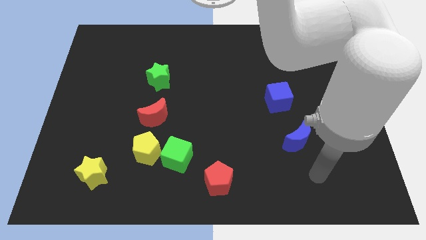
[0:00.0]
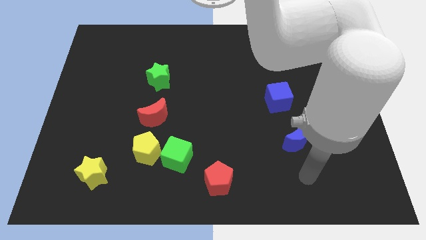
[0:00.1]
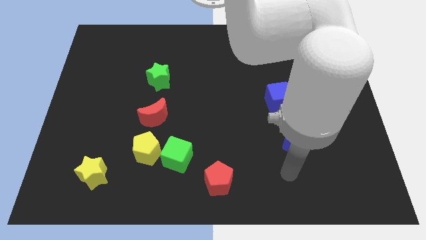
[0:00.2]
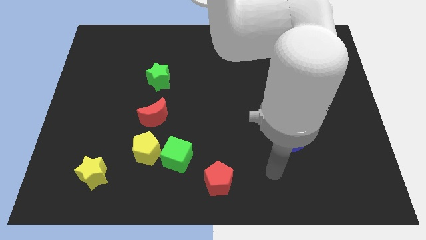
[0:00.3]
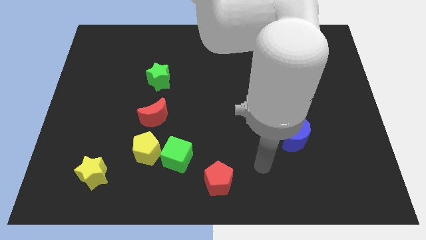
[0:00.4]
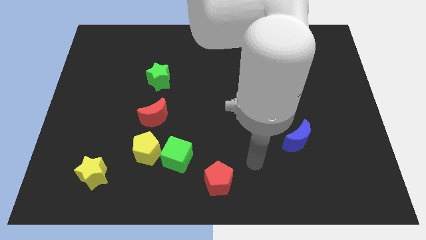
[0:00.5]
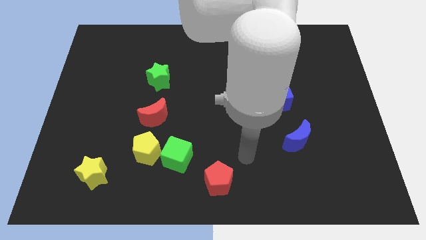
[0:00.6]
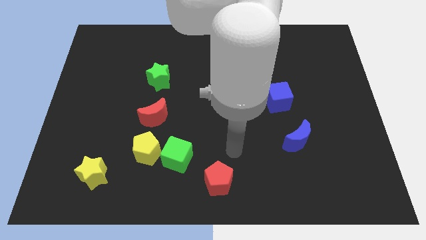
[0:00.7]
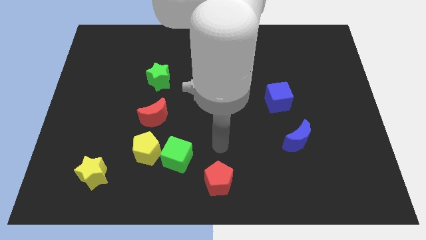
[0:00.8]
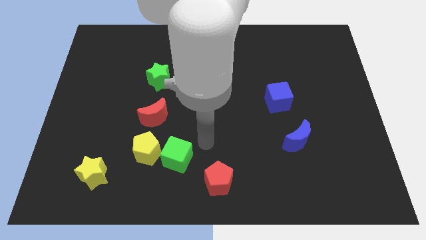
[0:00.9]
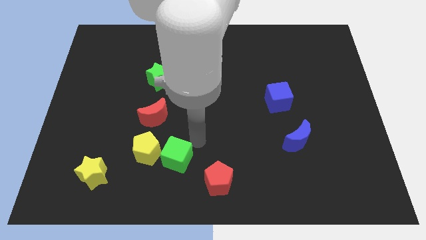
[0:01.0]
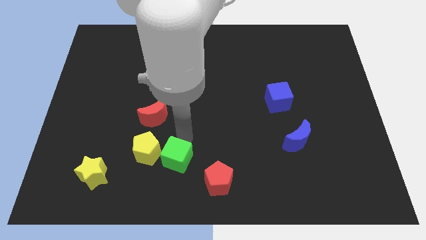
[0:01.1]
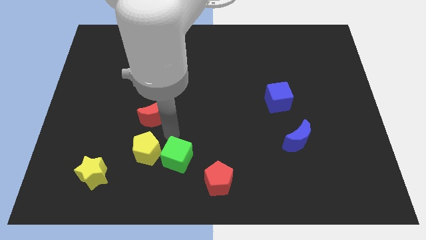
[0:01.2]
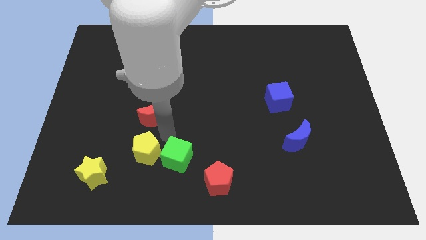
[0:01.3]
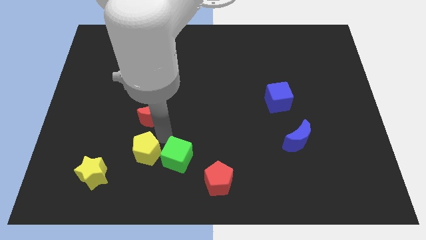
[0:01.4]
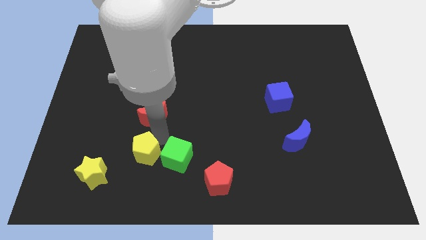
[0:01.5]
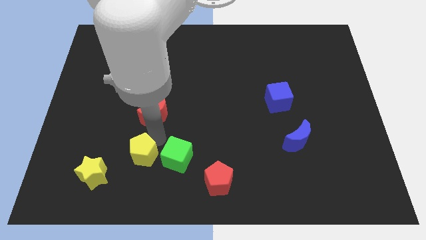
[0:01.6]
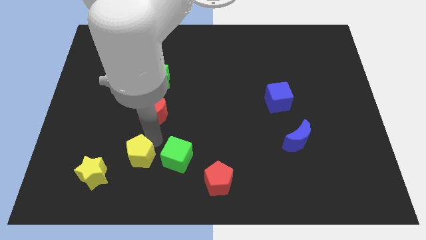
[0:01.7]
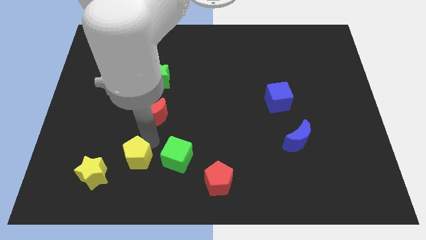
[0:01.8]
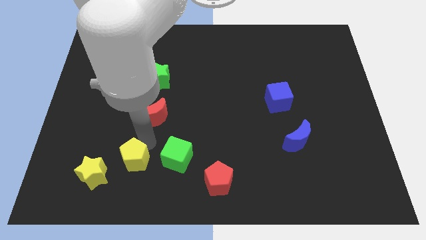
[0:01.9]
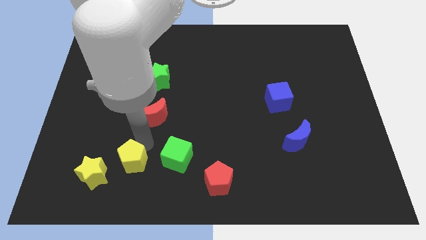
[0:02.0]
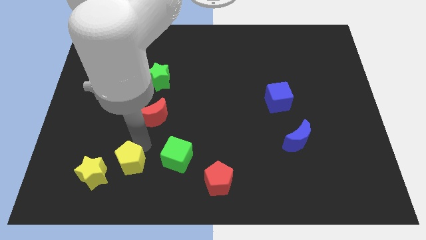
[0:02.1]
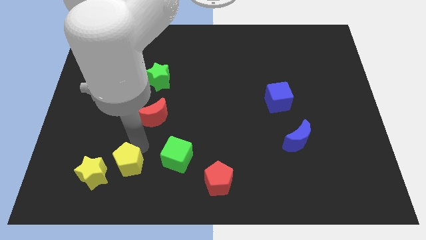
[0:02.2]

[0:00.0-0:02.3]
separate the yellow pentagon from the green cube and red moon

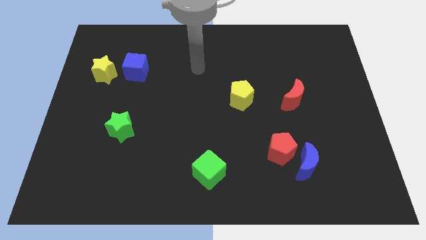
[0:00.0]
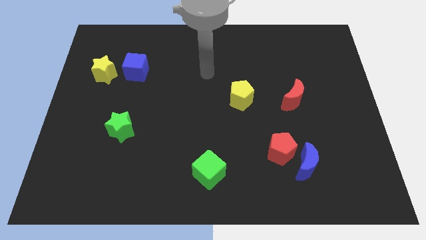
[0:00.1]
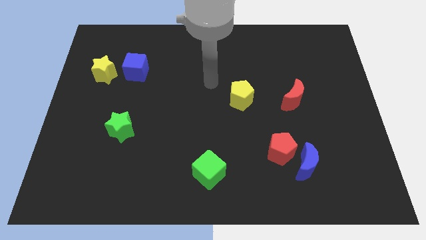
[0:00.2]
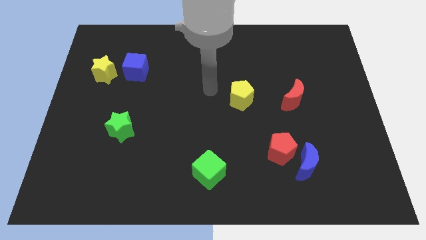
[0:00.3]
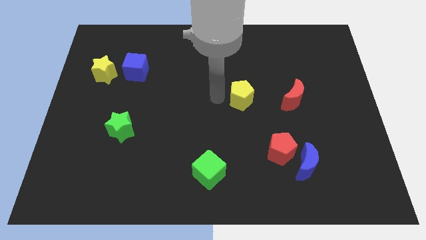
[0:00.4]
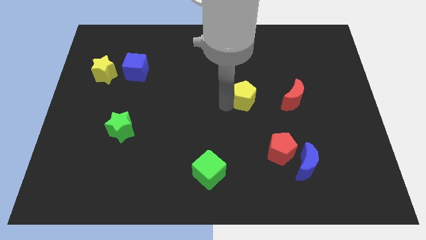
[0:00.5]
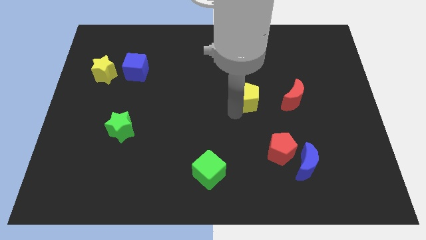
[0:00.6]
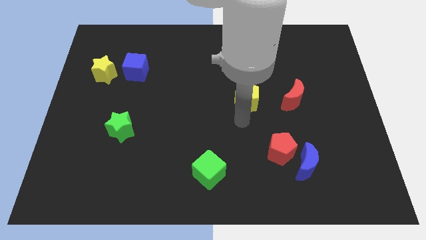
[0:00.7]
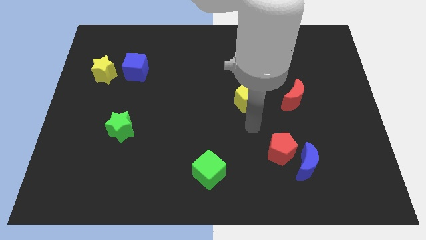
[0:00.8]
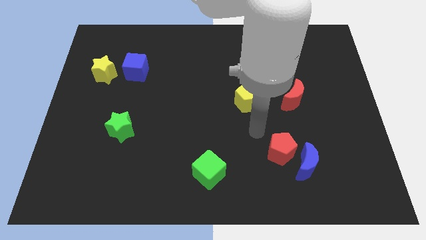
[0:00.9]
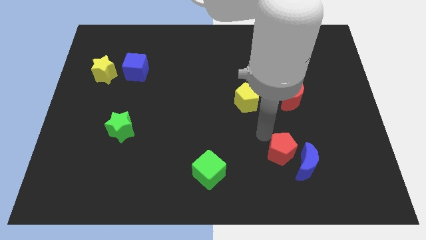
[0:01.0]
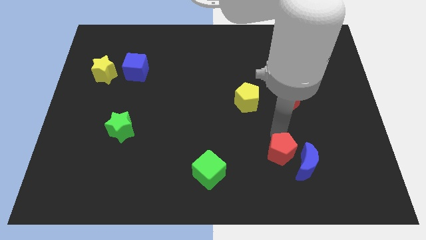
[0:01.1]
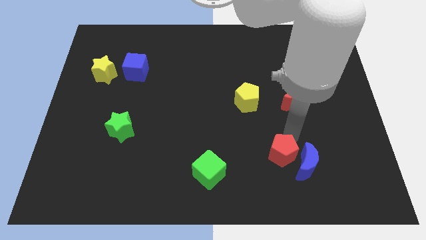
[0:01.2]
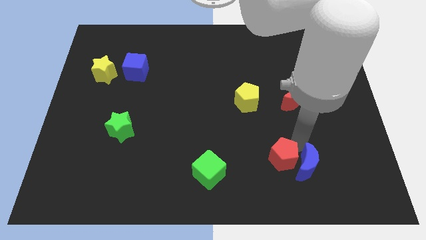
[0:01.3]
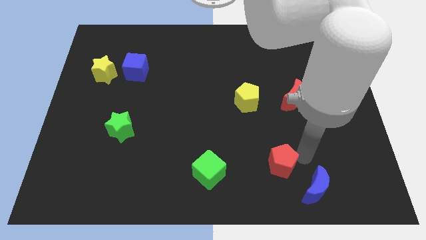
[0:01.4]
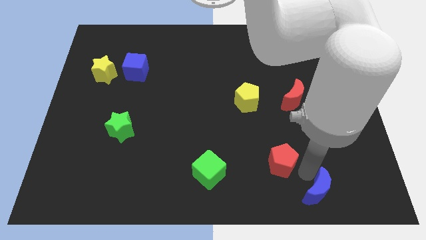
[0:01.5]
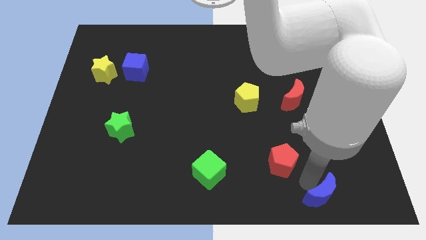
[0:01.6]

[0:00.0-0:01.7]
move the red pentagon away from the blue moon

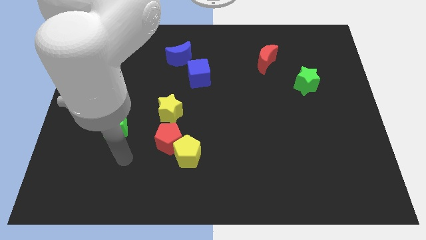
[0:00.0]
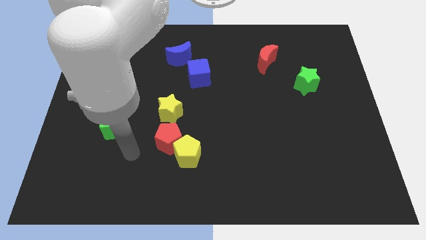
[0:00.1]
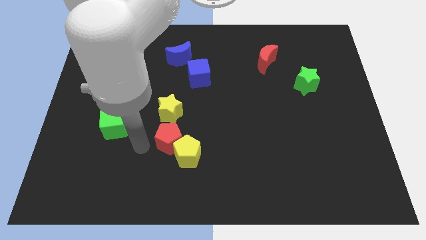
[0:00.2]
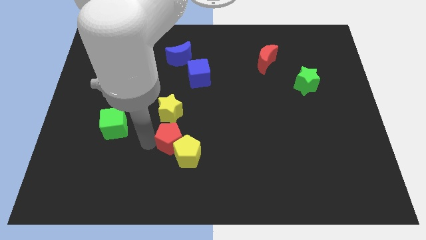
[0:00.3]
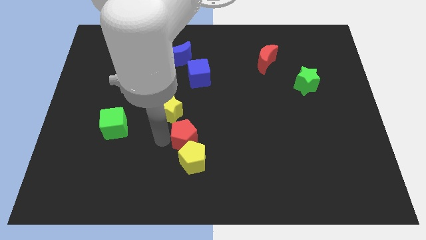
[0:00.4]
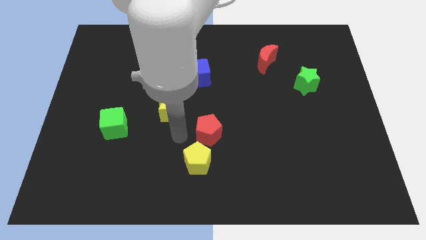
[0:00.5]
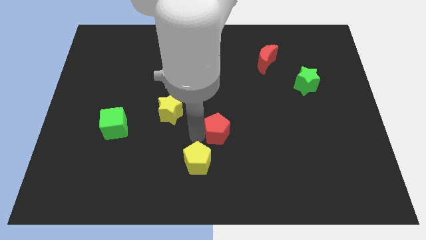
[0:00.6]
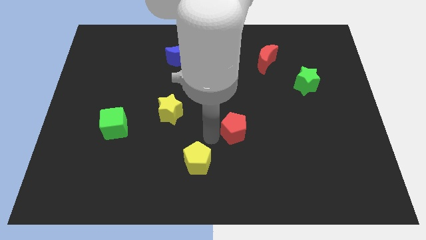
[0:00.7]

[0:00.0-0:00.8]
separate the yellow pentagon from the red pentagon

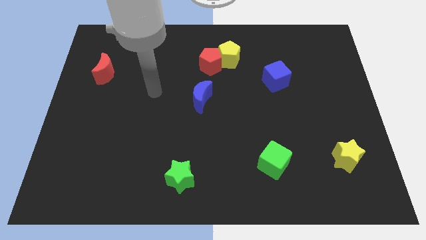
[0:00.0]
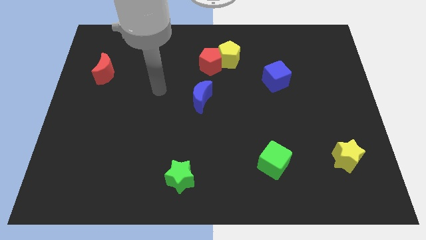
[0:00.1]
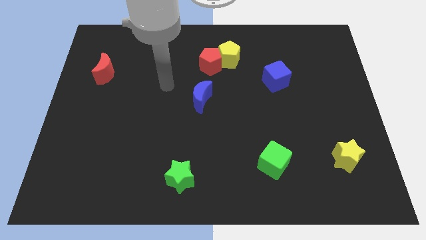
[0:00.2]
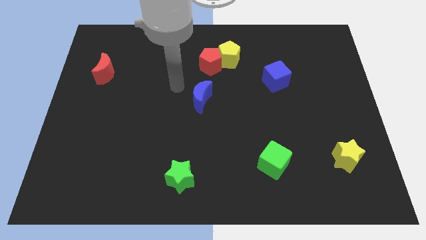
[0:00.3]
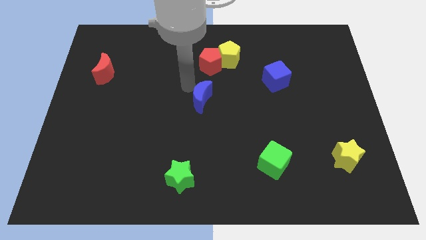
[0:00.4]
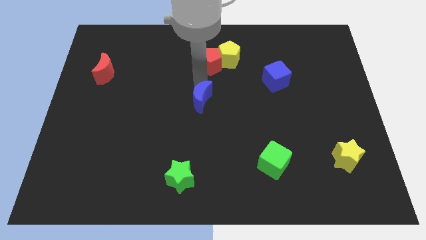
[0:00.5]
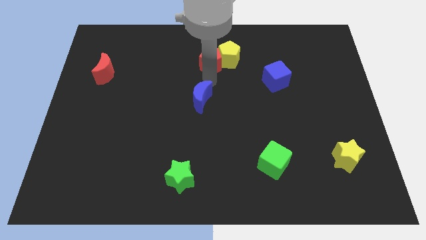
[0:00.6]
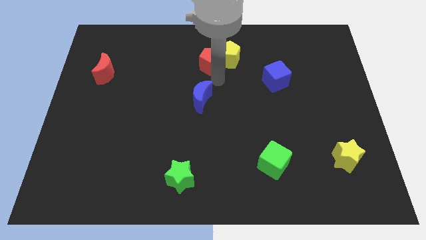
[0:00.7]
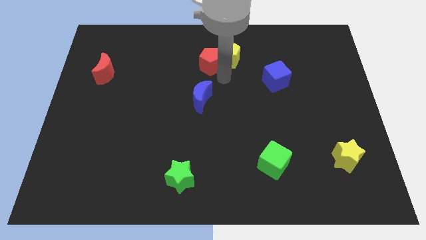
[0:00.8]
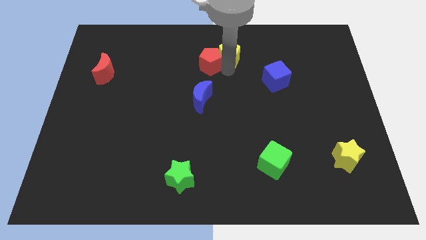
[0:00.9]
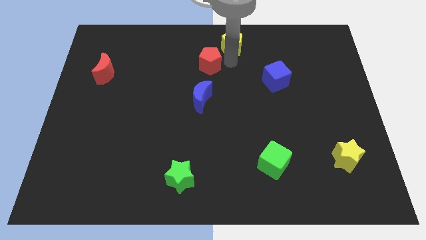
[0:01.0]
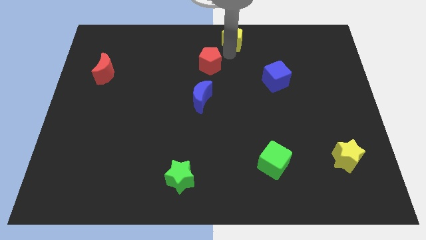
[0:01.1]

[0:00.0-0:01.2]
pull the red pentagon apart from the yellow pentagon

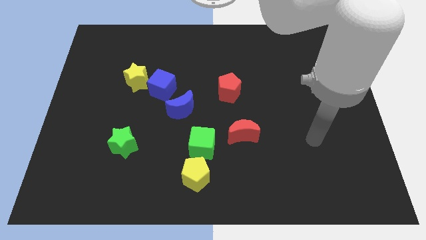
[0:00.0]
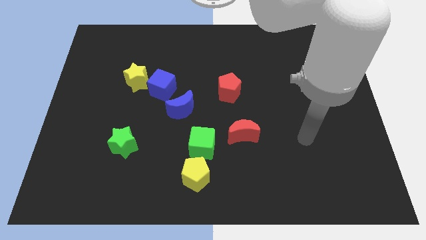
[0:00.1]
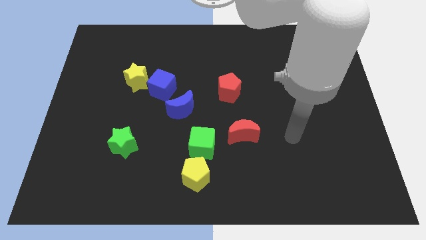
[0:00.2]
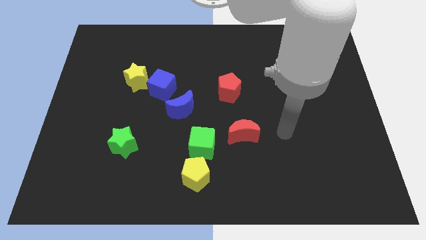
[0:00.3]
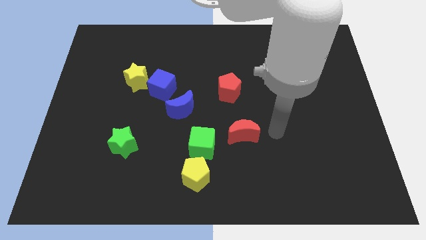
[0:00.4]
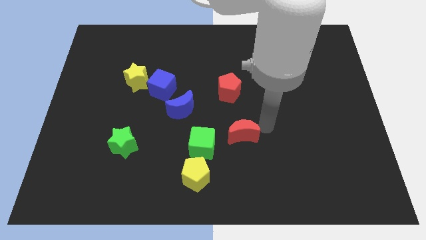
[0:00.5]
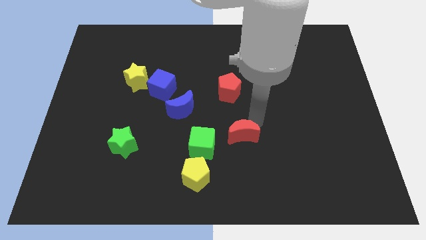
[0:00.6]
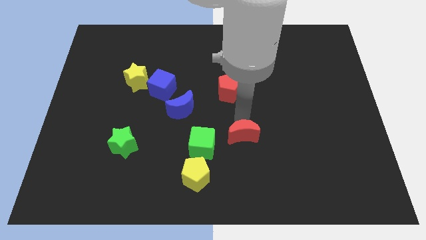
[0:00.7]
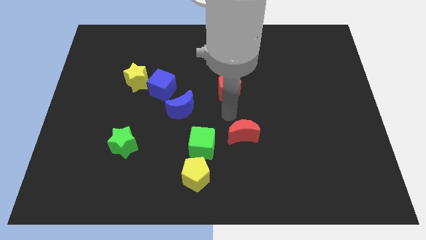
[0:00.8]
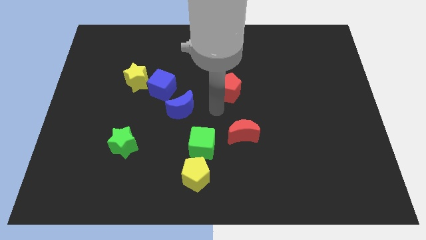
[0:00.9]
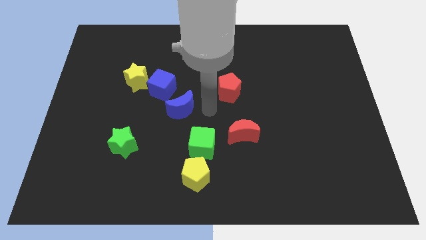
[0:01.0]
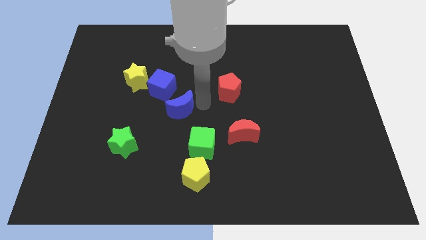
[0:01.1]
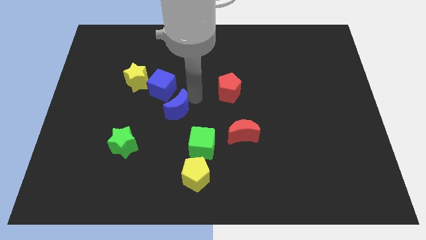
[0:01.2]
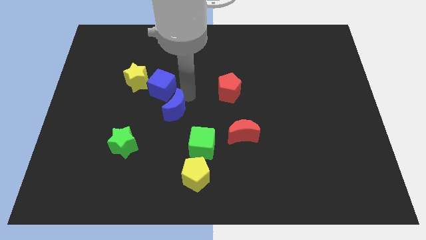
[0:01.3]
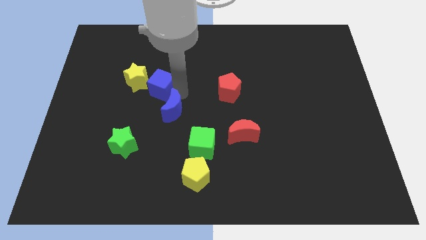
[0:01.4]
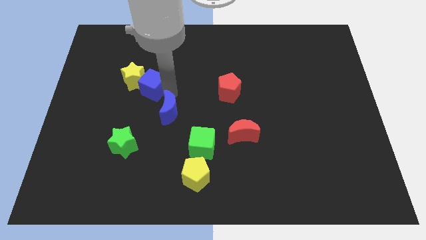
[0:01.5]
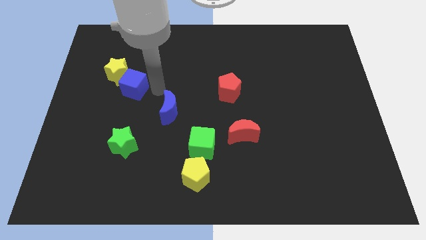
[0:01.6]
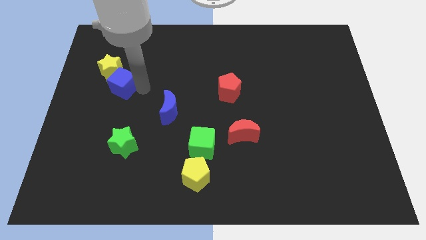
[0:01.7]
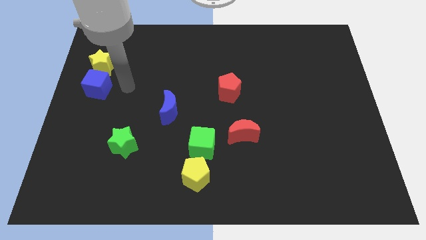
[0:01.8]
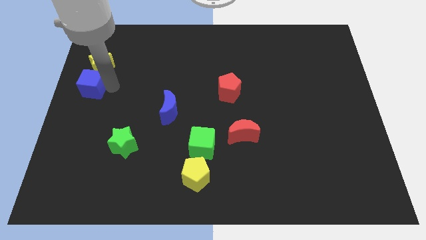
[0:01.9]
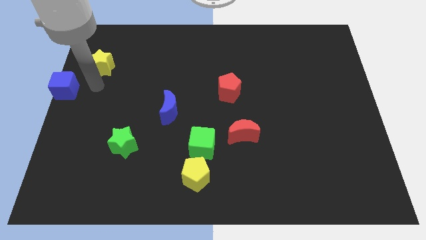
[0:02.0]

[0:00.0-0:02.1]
separate the yellow star from the blue cube

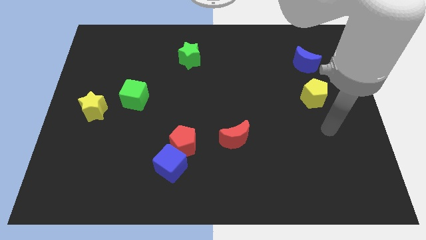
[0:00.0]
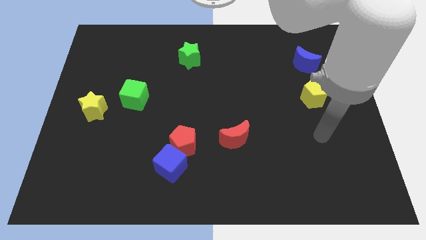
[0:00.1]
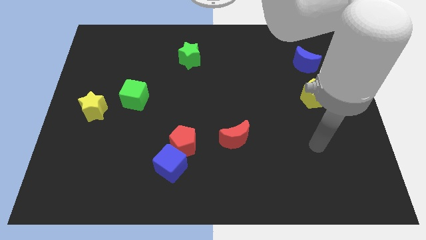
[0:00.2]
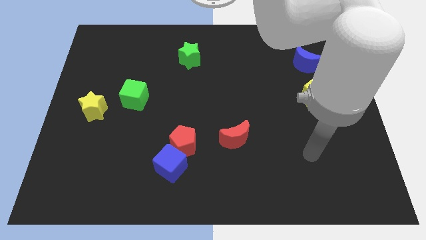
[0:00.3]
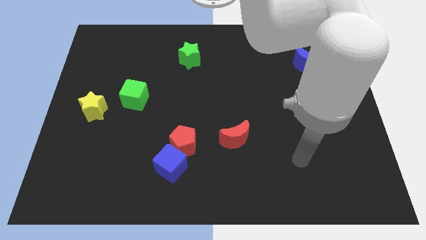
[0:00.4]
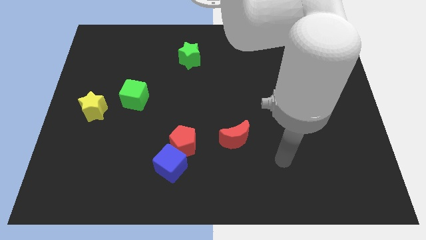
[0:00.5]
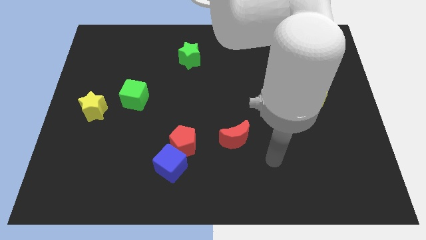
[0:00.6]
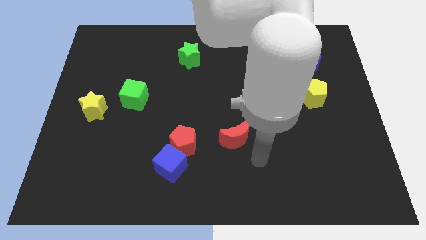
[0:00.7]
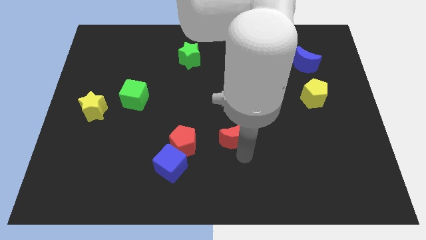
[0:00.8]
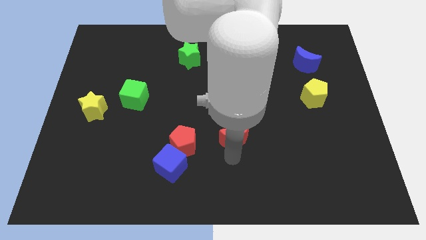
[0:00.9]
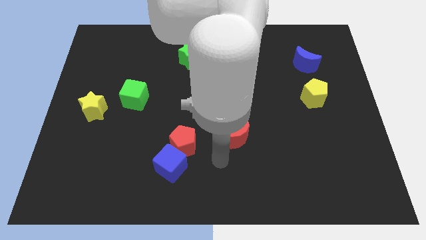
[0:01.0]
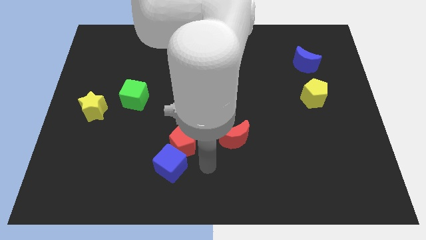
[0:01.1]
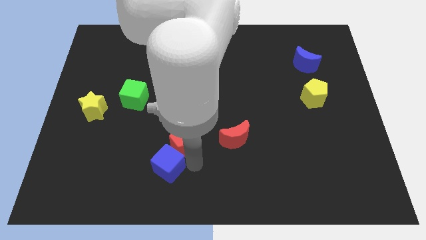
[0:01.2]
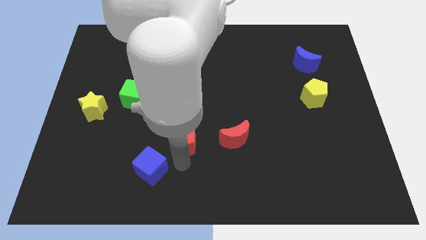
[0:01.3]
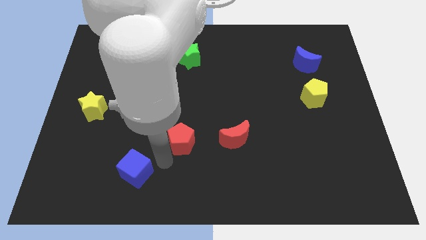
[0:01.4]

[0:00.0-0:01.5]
pull the red pentagon apart from the blue cube
